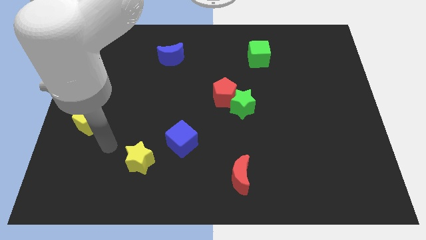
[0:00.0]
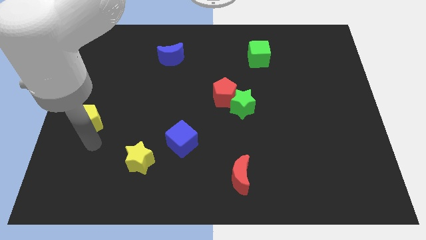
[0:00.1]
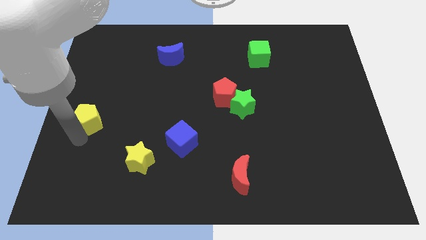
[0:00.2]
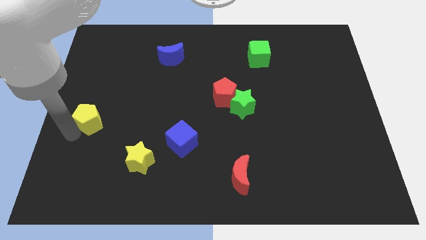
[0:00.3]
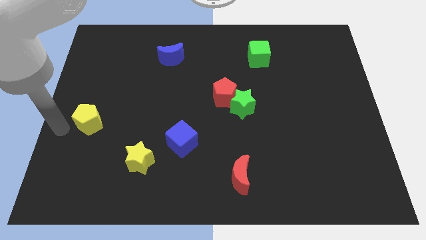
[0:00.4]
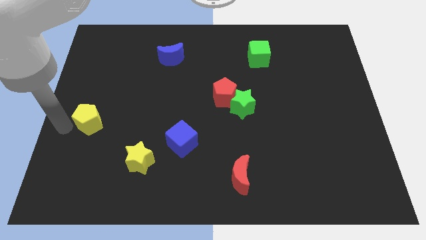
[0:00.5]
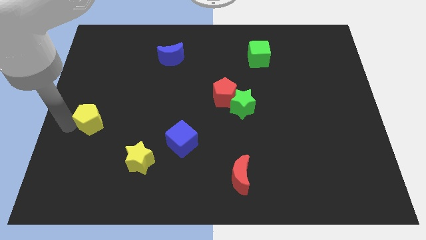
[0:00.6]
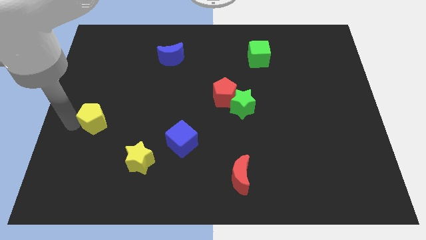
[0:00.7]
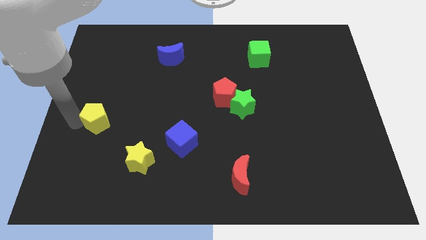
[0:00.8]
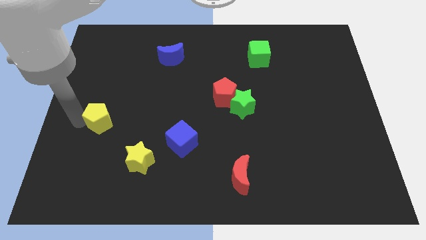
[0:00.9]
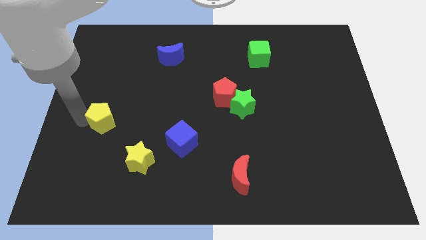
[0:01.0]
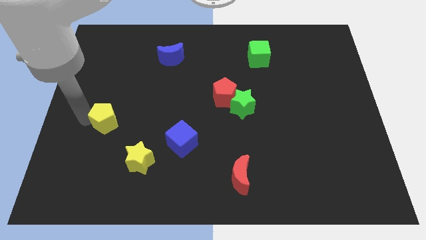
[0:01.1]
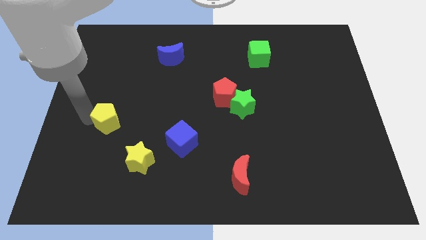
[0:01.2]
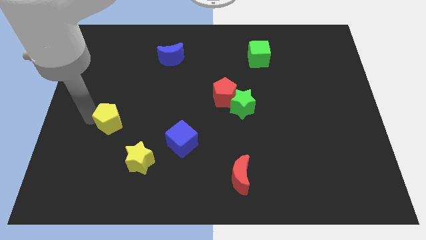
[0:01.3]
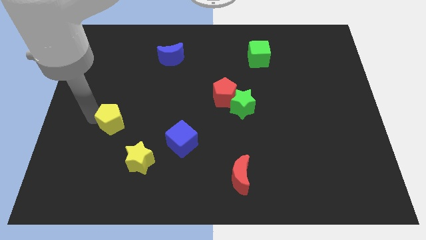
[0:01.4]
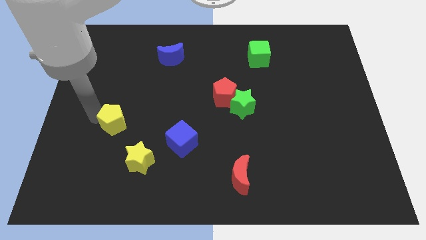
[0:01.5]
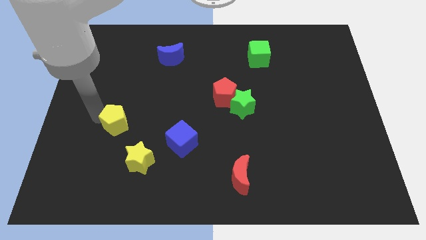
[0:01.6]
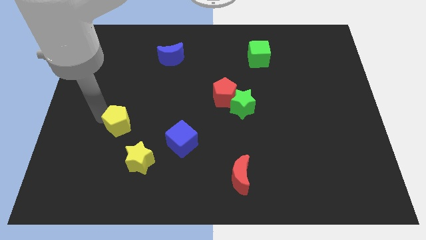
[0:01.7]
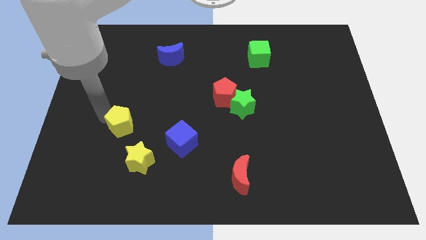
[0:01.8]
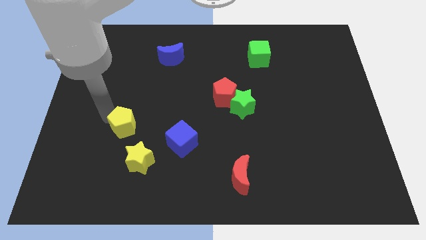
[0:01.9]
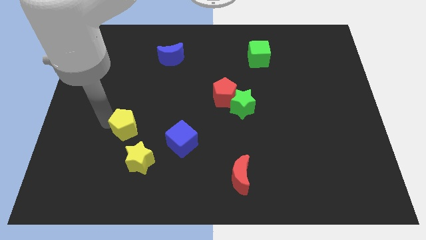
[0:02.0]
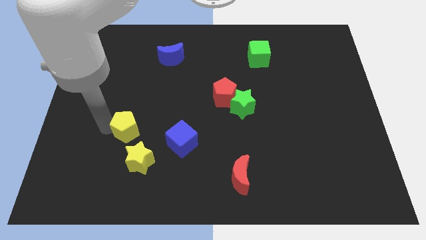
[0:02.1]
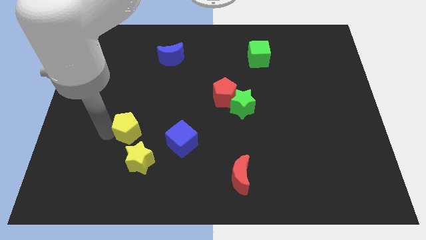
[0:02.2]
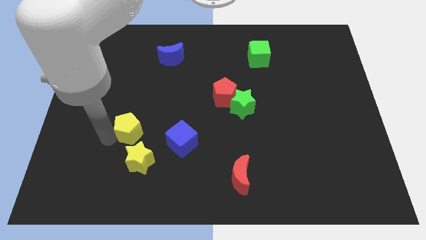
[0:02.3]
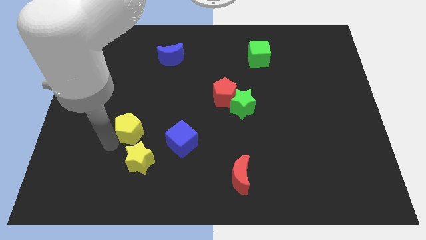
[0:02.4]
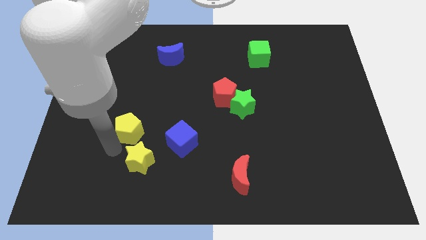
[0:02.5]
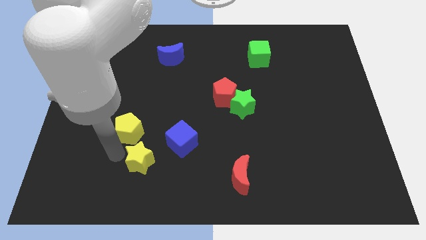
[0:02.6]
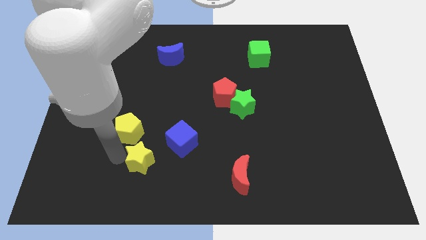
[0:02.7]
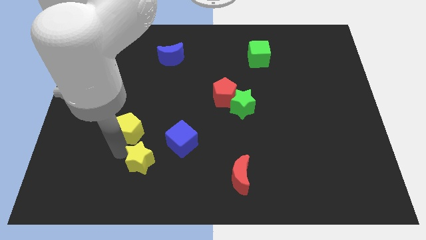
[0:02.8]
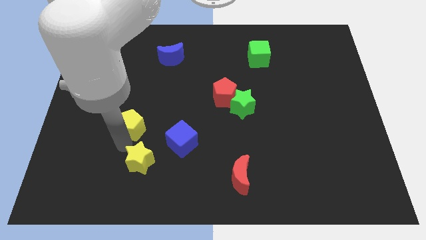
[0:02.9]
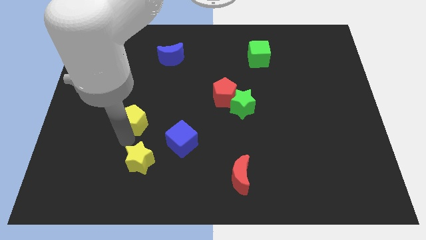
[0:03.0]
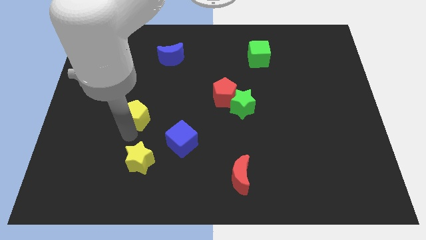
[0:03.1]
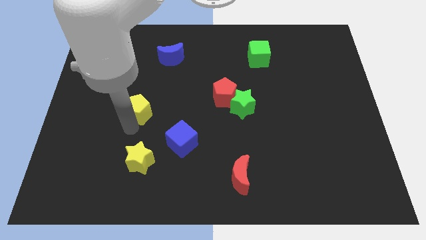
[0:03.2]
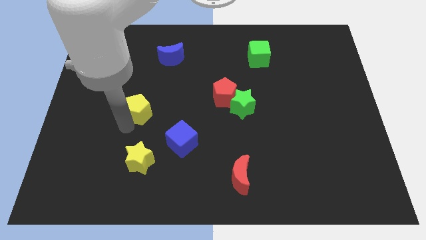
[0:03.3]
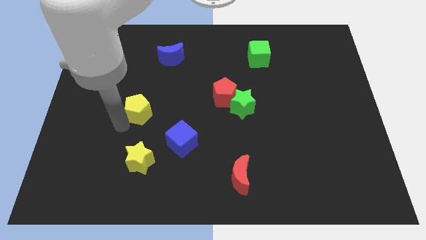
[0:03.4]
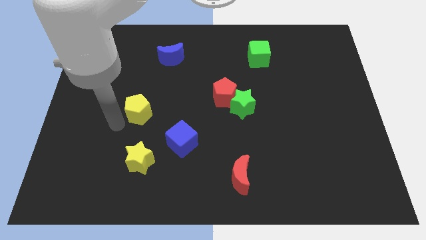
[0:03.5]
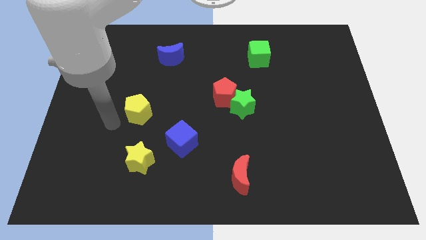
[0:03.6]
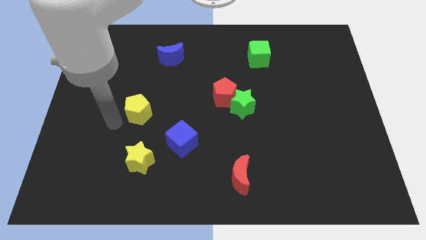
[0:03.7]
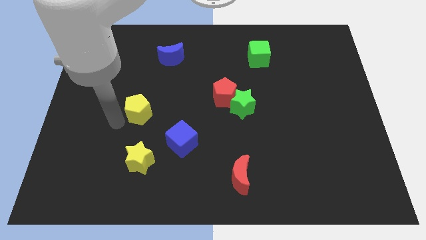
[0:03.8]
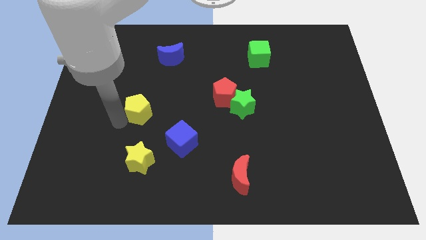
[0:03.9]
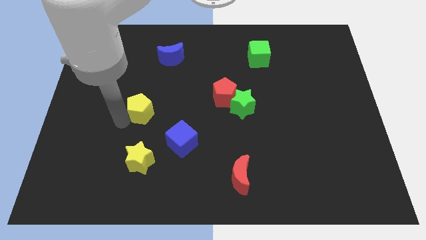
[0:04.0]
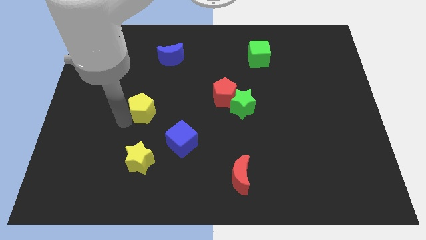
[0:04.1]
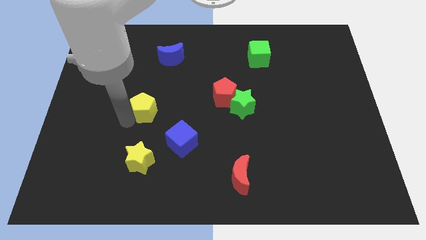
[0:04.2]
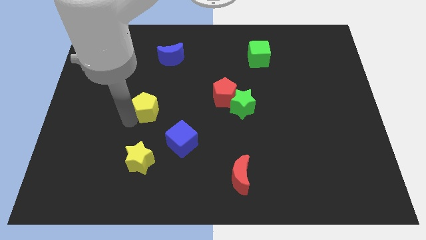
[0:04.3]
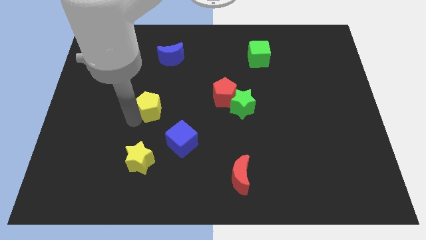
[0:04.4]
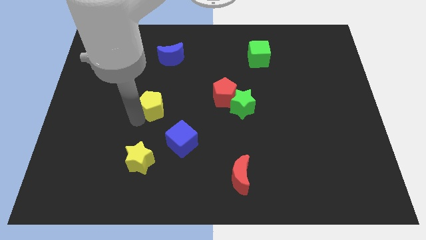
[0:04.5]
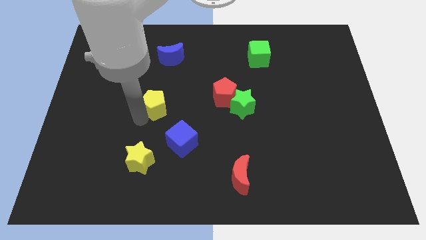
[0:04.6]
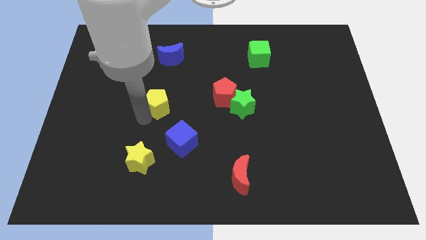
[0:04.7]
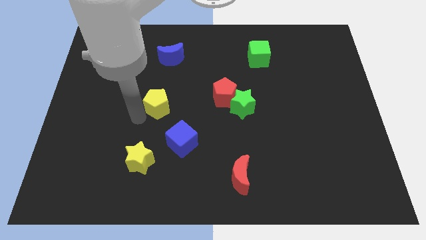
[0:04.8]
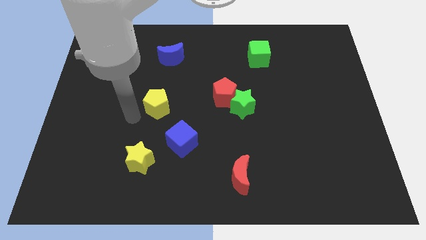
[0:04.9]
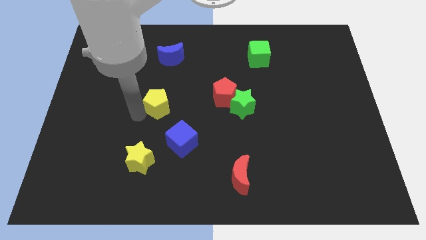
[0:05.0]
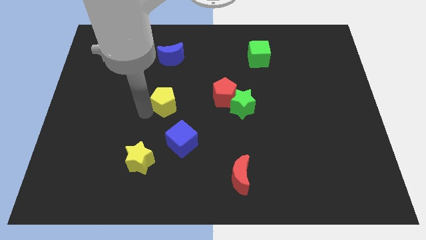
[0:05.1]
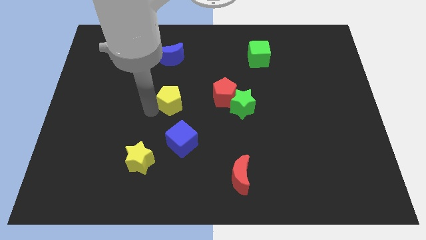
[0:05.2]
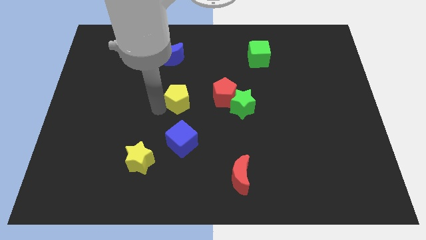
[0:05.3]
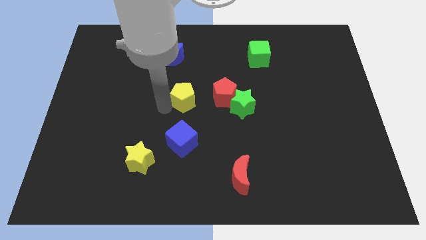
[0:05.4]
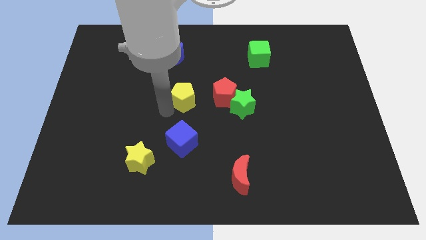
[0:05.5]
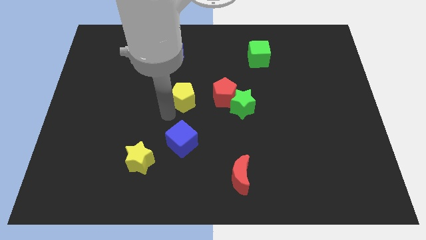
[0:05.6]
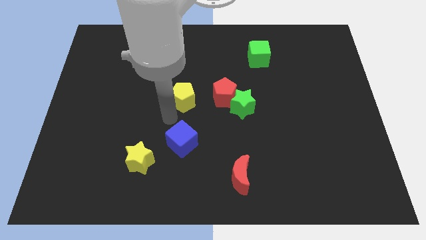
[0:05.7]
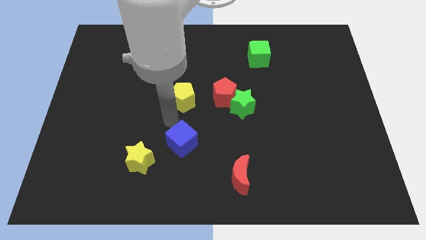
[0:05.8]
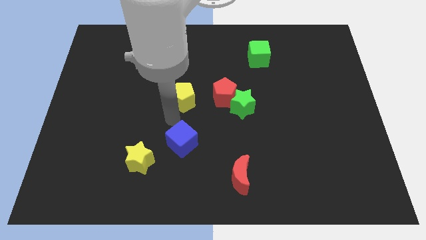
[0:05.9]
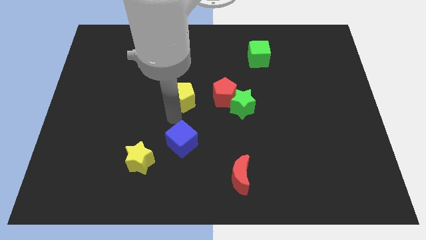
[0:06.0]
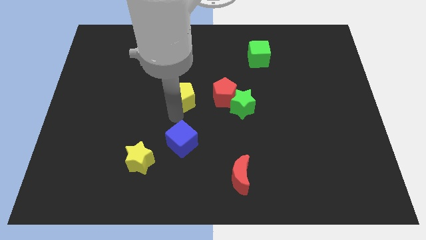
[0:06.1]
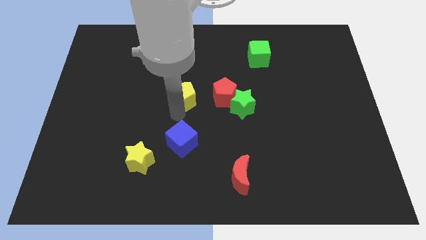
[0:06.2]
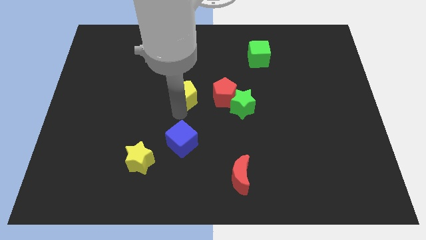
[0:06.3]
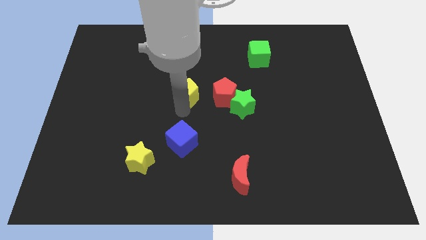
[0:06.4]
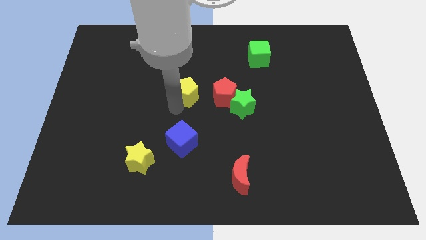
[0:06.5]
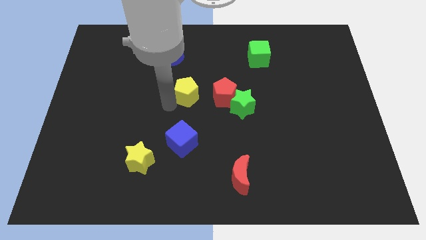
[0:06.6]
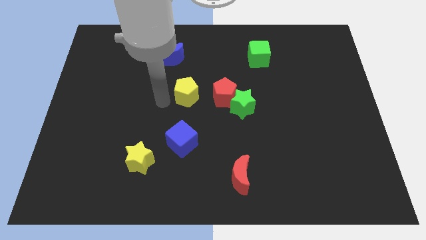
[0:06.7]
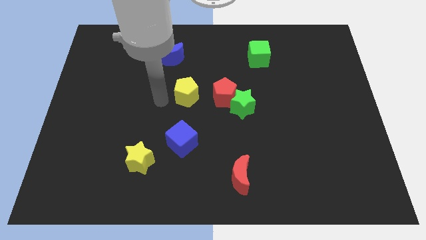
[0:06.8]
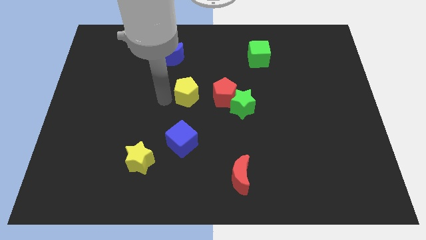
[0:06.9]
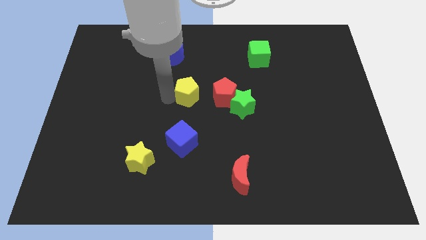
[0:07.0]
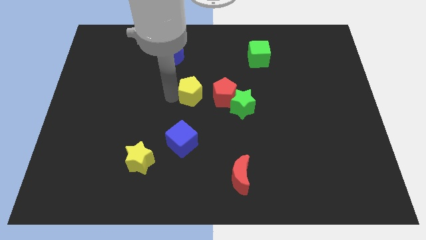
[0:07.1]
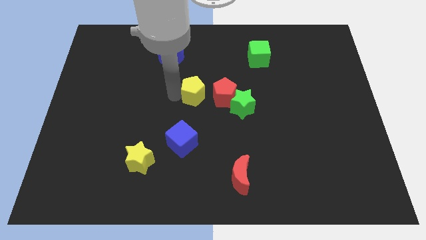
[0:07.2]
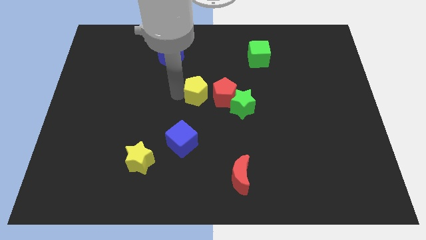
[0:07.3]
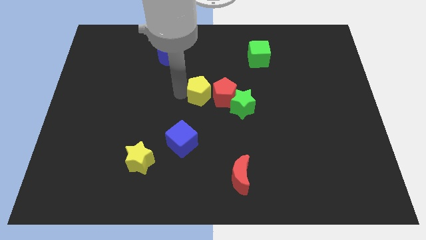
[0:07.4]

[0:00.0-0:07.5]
put the yellow pentagon to the top left of the green star
